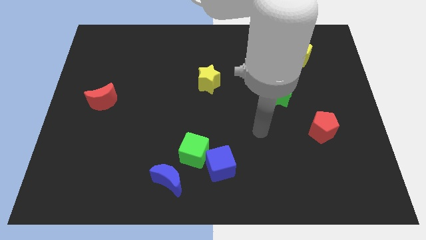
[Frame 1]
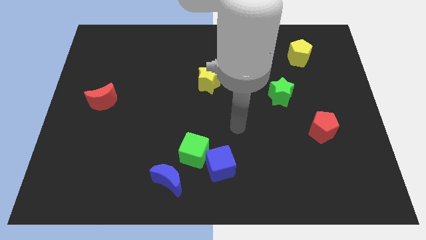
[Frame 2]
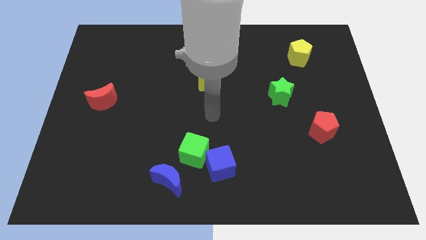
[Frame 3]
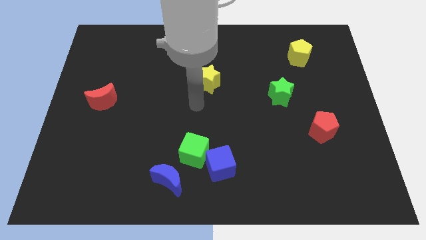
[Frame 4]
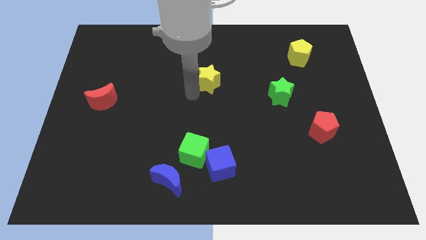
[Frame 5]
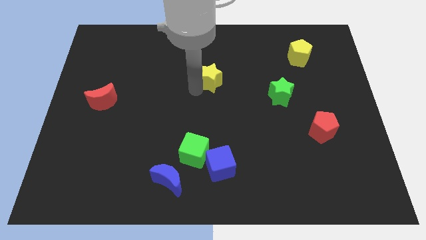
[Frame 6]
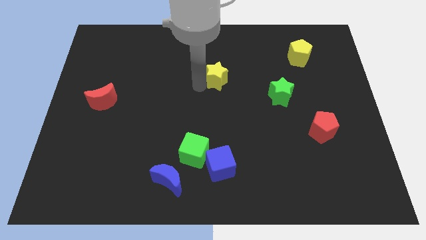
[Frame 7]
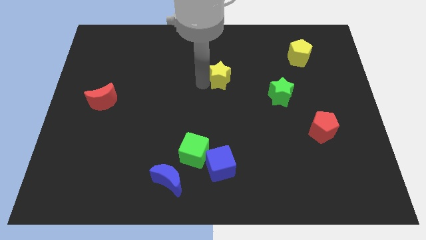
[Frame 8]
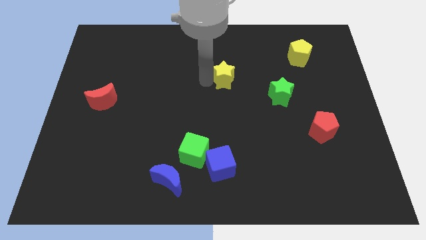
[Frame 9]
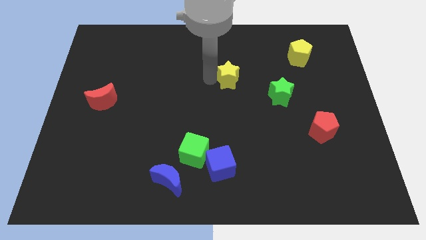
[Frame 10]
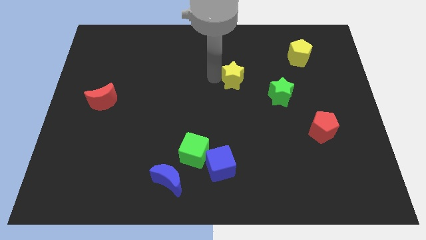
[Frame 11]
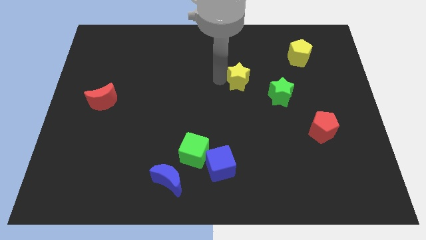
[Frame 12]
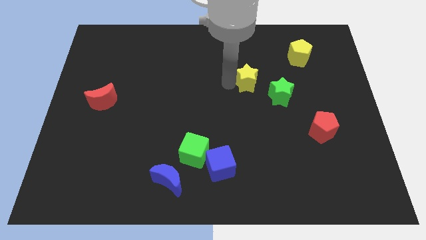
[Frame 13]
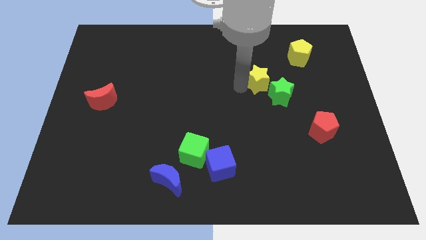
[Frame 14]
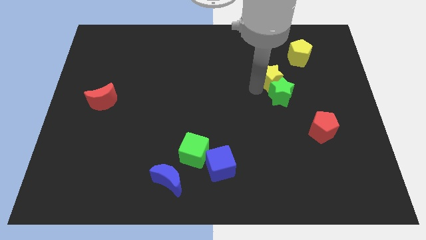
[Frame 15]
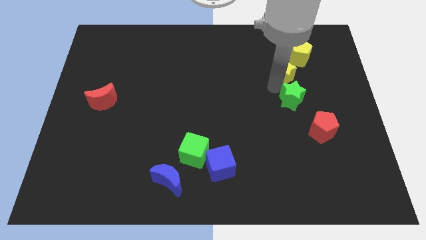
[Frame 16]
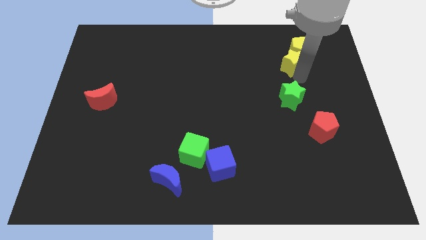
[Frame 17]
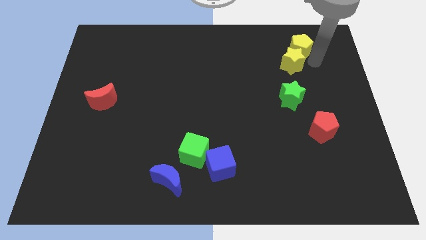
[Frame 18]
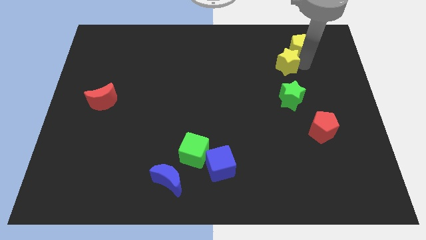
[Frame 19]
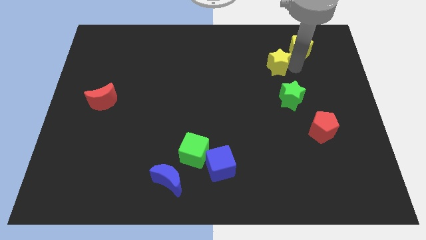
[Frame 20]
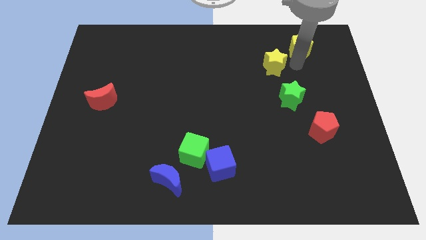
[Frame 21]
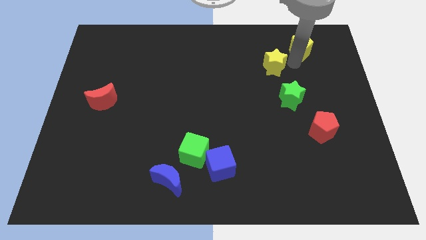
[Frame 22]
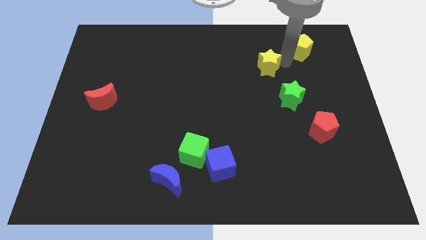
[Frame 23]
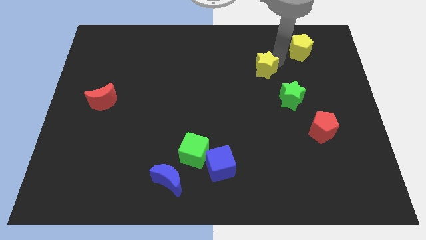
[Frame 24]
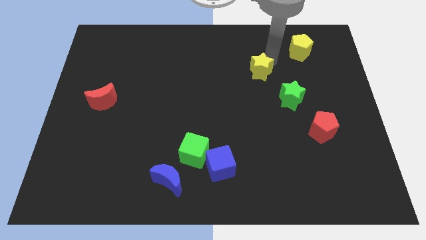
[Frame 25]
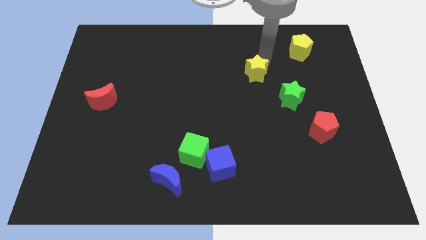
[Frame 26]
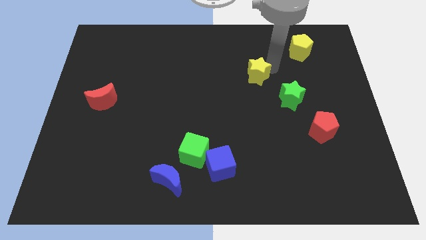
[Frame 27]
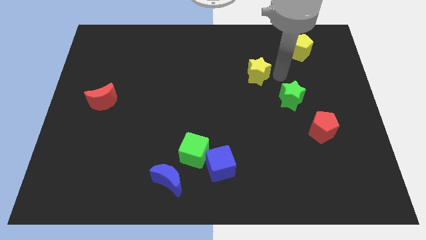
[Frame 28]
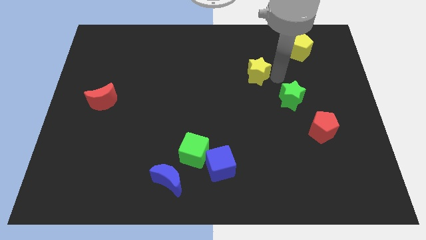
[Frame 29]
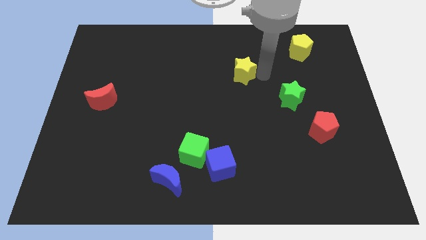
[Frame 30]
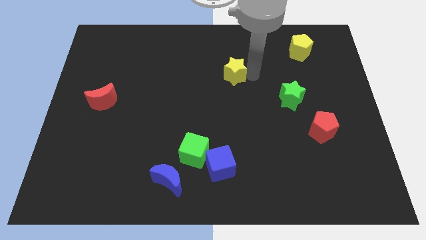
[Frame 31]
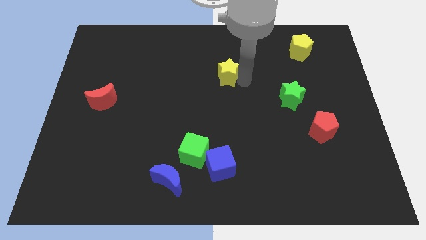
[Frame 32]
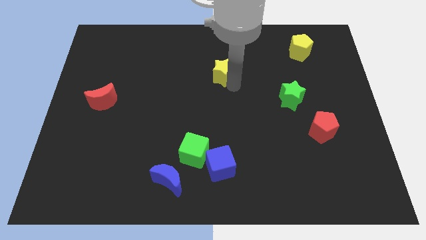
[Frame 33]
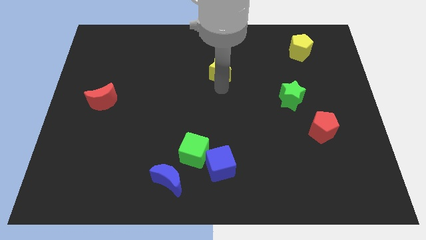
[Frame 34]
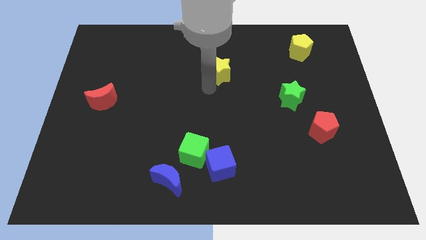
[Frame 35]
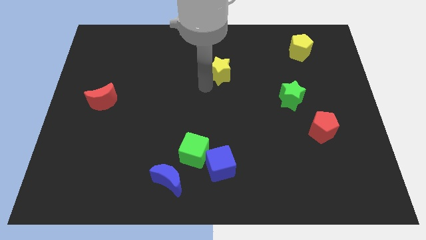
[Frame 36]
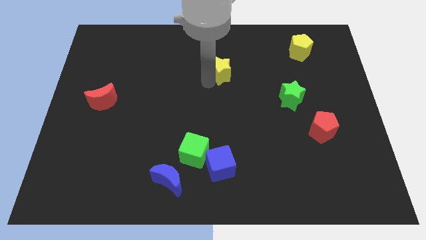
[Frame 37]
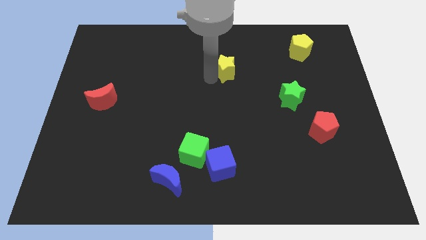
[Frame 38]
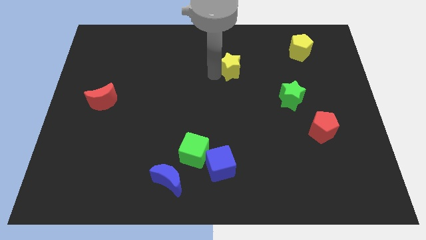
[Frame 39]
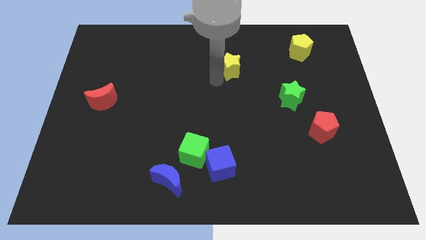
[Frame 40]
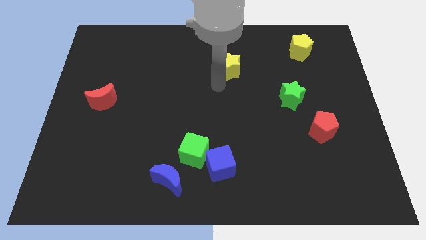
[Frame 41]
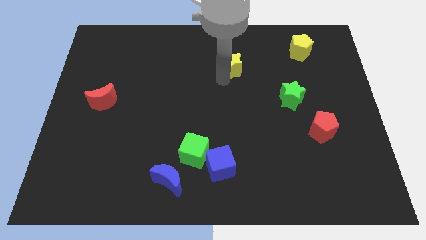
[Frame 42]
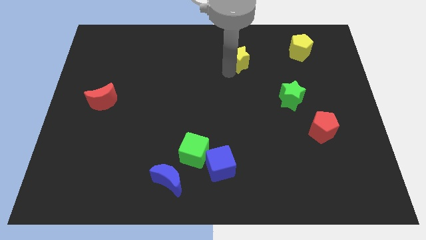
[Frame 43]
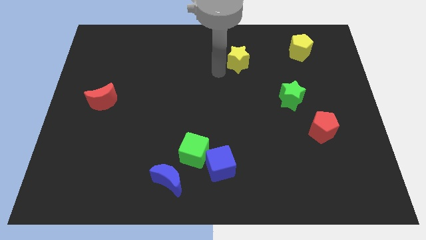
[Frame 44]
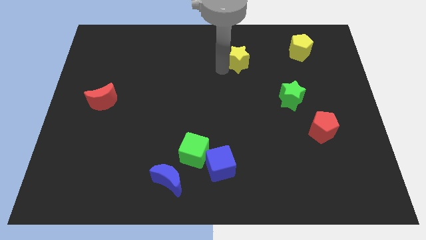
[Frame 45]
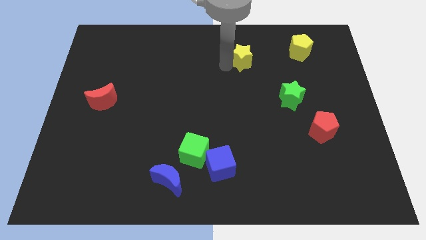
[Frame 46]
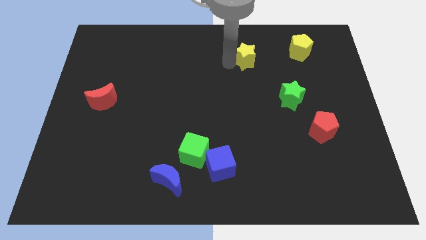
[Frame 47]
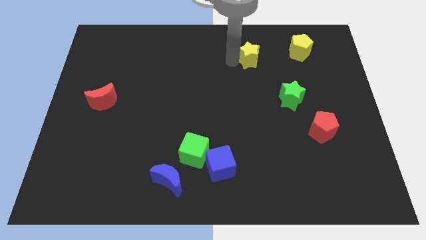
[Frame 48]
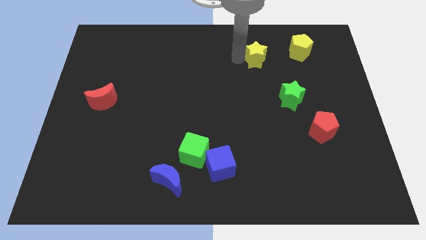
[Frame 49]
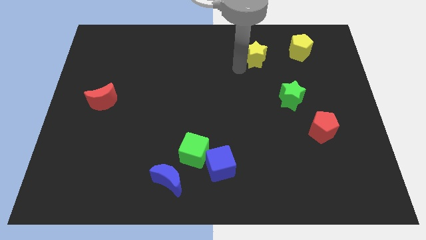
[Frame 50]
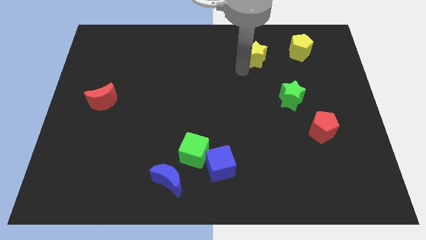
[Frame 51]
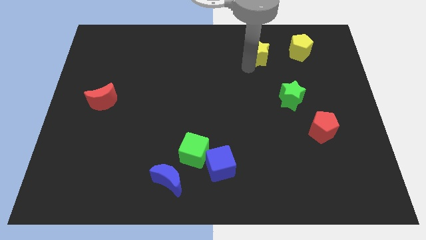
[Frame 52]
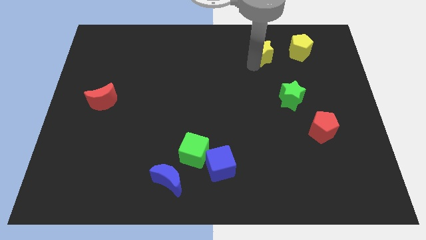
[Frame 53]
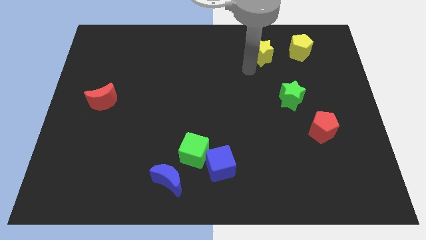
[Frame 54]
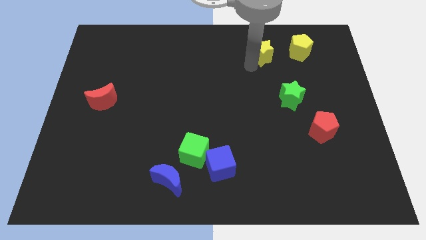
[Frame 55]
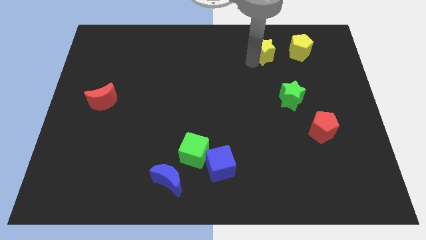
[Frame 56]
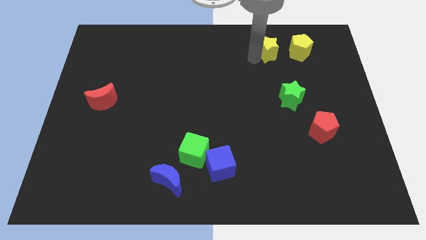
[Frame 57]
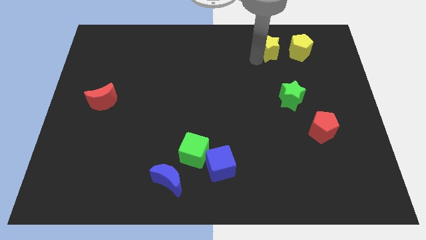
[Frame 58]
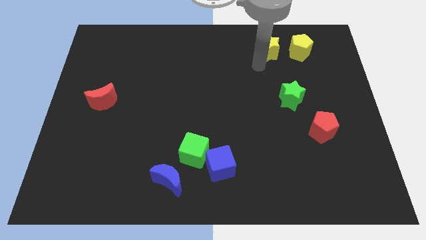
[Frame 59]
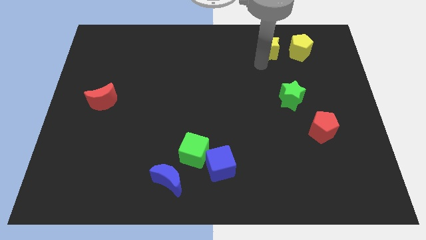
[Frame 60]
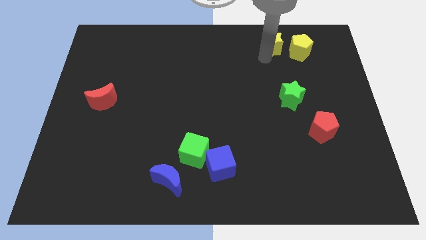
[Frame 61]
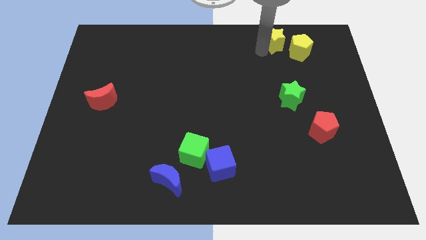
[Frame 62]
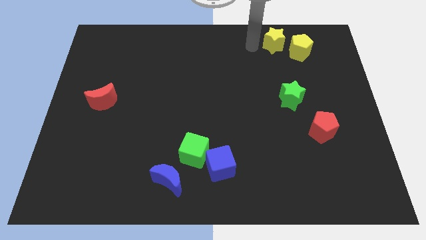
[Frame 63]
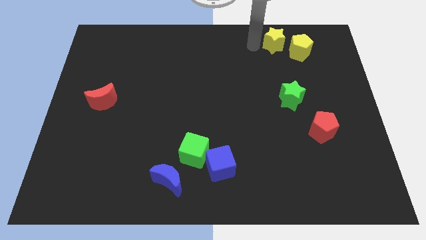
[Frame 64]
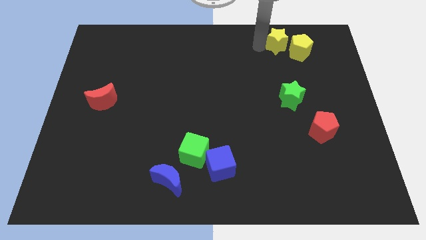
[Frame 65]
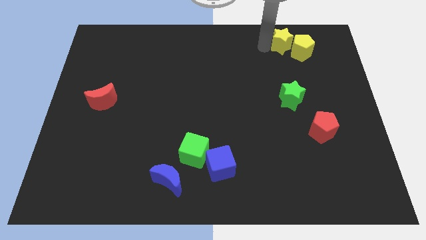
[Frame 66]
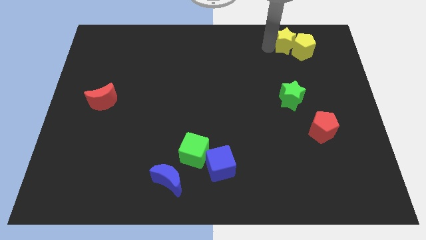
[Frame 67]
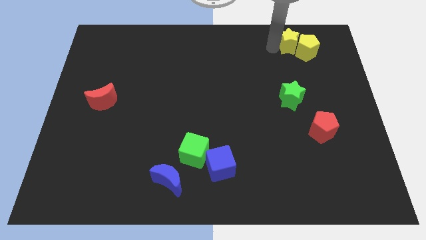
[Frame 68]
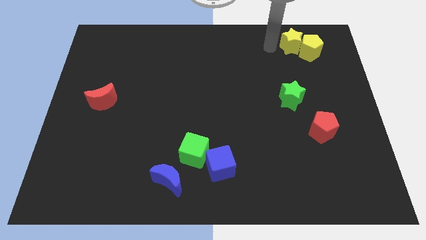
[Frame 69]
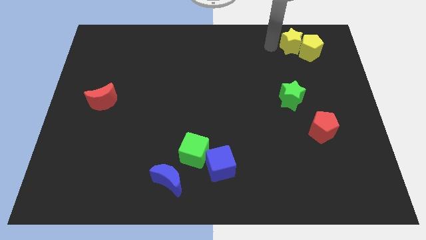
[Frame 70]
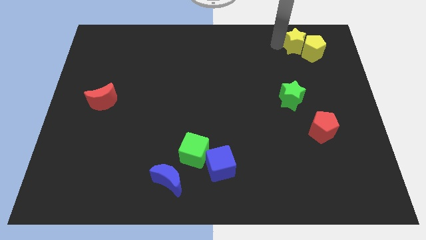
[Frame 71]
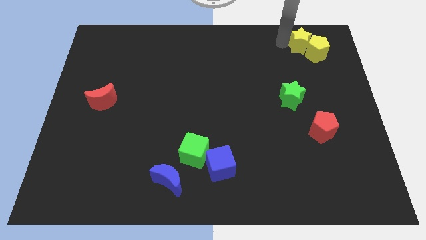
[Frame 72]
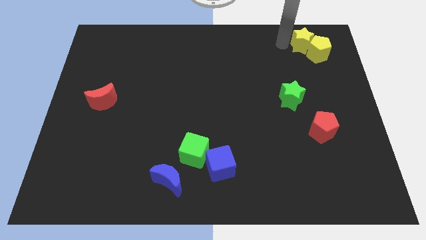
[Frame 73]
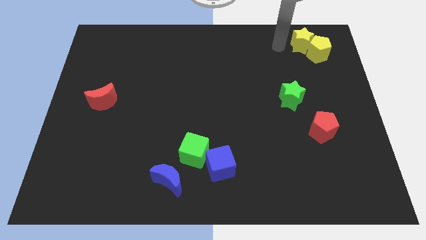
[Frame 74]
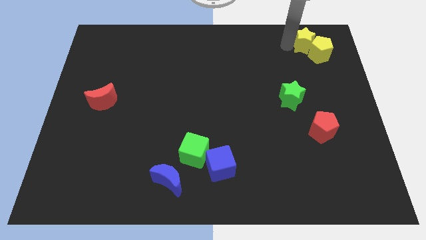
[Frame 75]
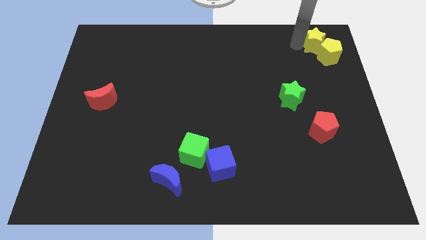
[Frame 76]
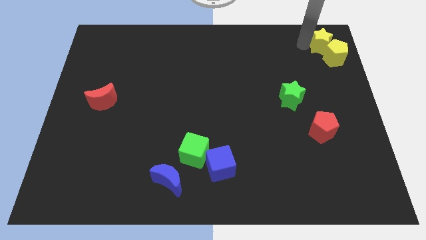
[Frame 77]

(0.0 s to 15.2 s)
put the yellow star to the top right corner
